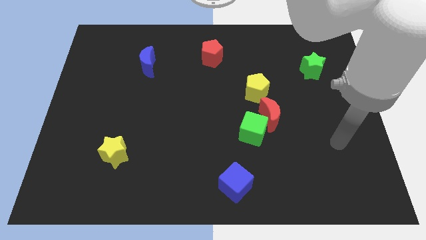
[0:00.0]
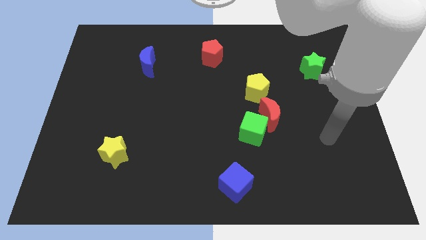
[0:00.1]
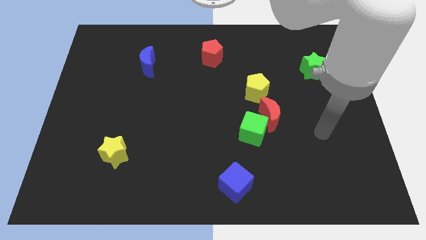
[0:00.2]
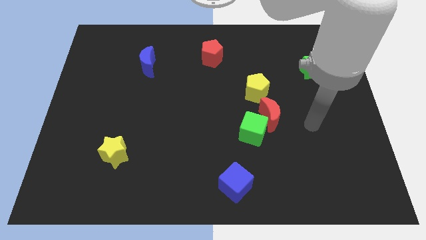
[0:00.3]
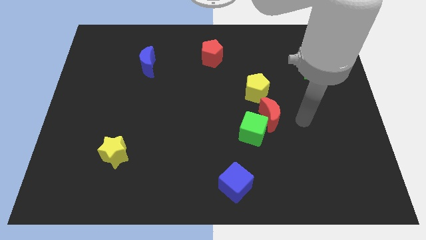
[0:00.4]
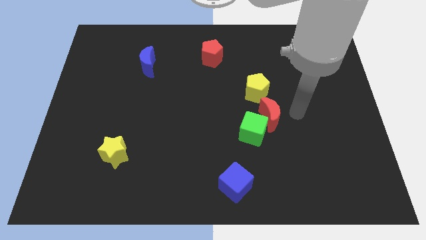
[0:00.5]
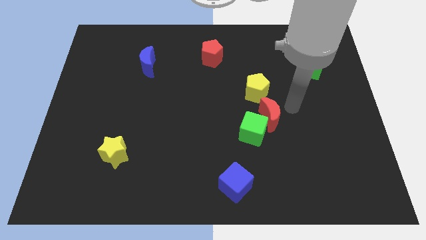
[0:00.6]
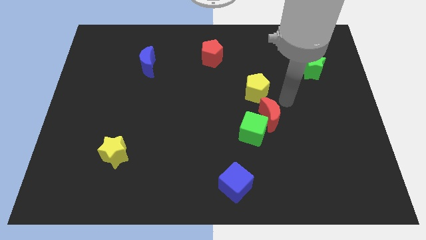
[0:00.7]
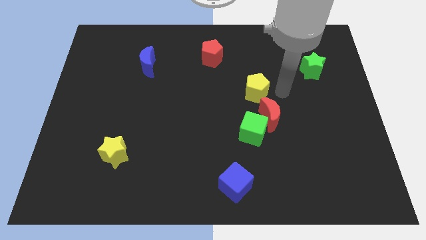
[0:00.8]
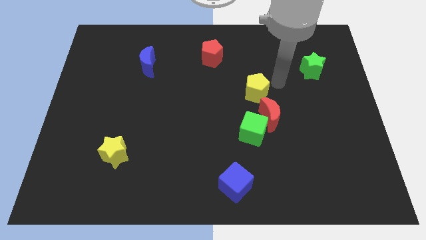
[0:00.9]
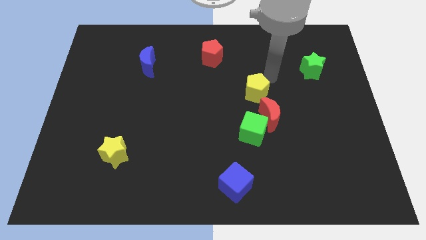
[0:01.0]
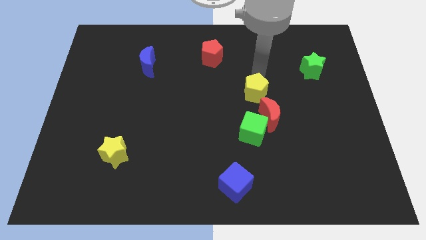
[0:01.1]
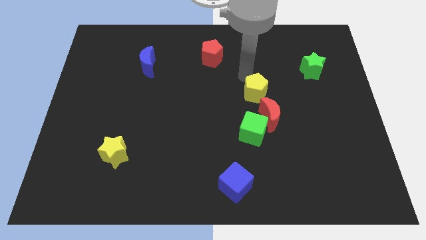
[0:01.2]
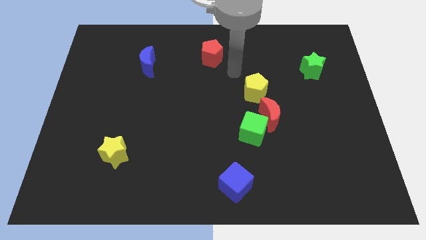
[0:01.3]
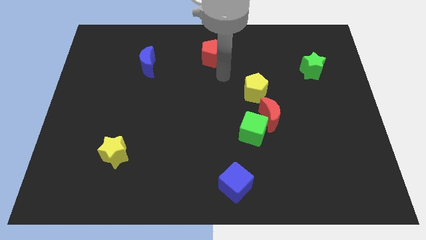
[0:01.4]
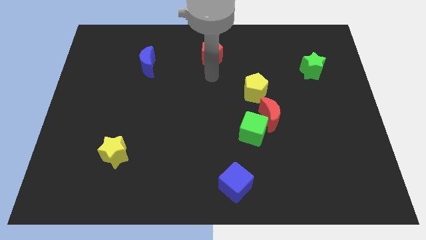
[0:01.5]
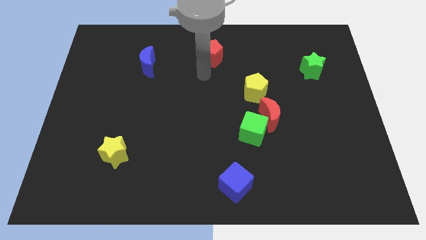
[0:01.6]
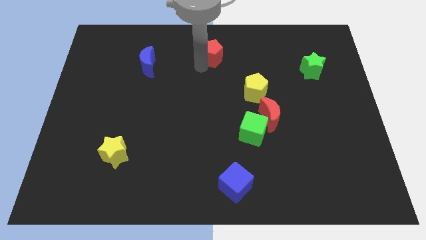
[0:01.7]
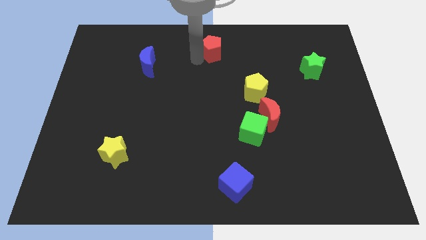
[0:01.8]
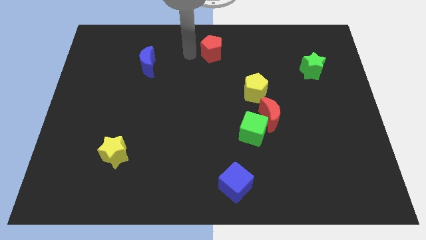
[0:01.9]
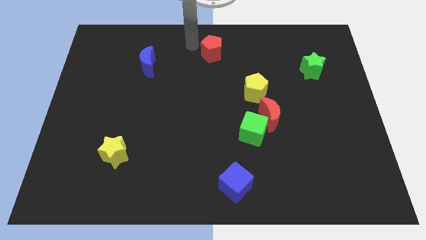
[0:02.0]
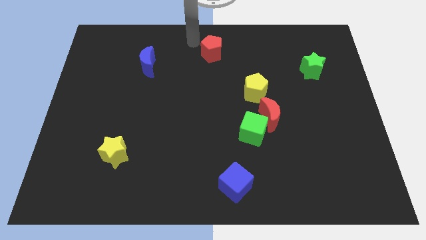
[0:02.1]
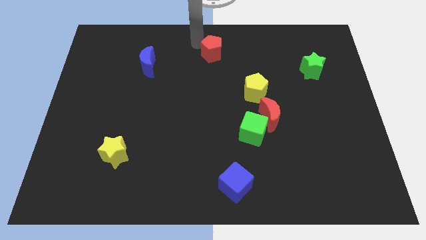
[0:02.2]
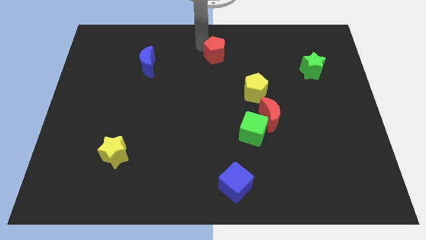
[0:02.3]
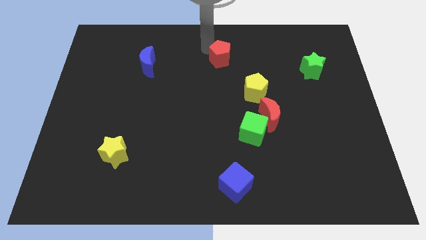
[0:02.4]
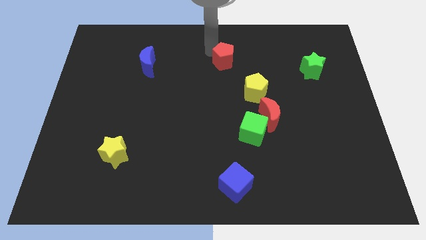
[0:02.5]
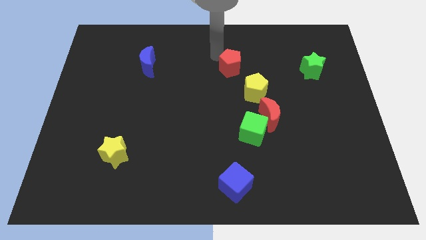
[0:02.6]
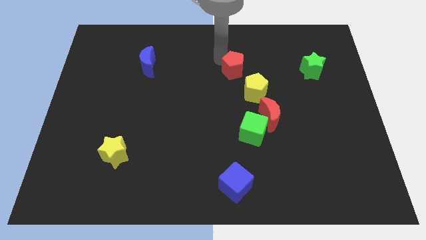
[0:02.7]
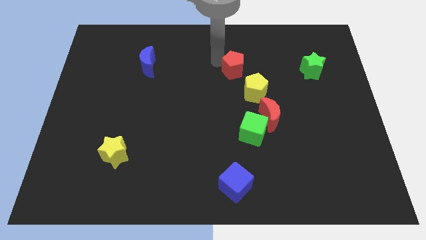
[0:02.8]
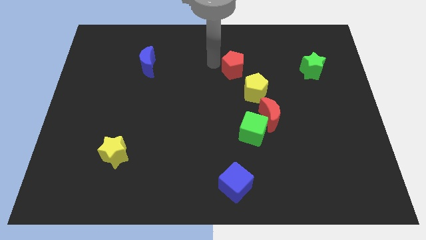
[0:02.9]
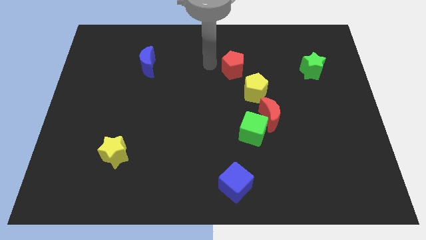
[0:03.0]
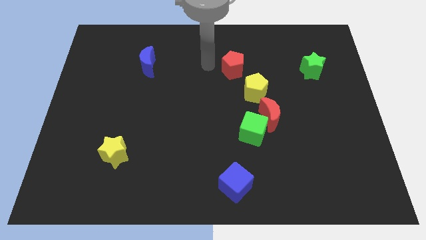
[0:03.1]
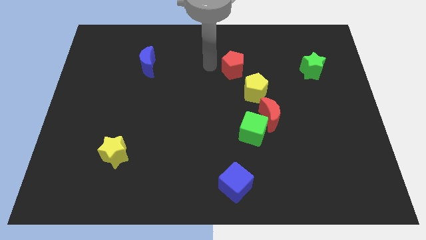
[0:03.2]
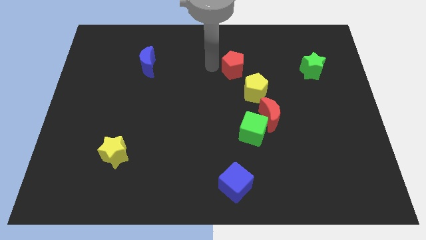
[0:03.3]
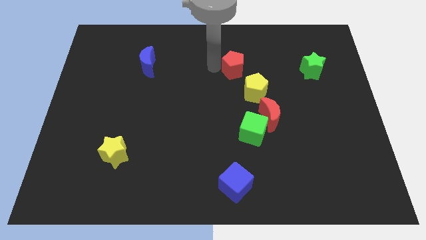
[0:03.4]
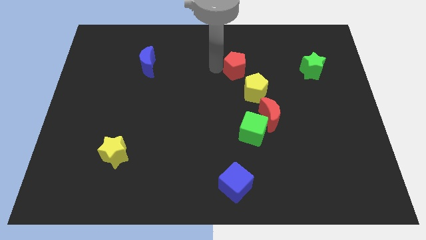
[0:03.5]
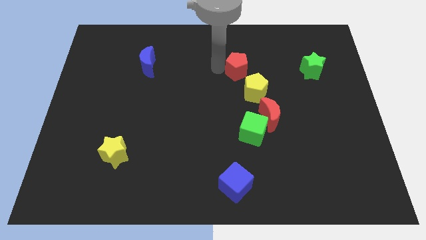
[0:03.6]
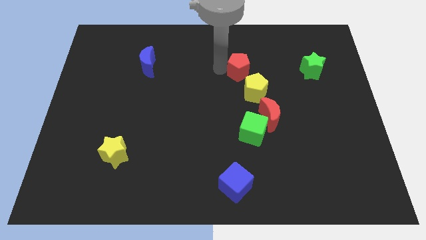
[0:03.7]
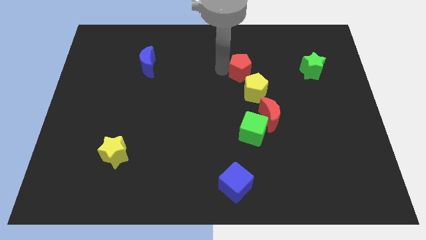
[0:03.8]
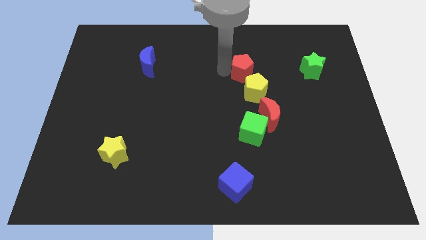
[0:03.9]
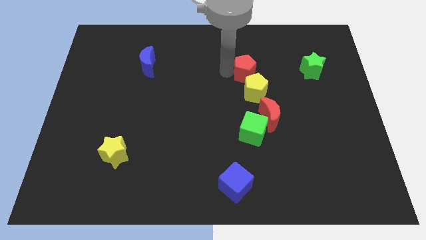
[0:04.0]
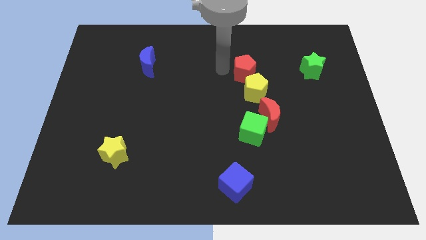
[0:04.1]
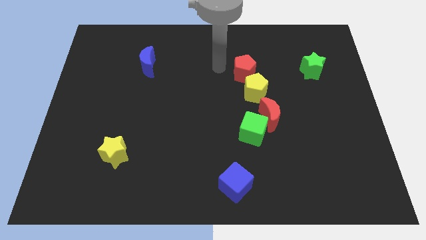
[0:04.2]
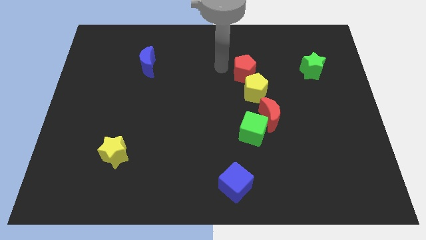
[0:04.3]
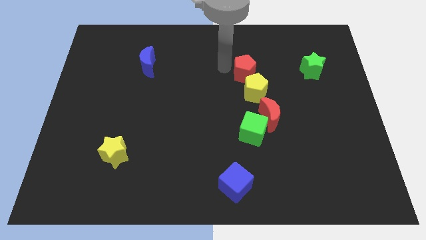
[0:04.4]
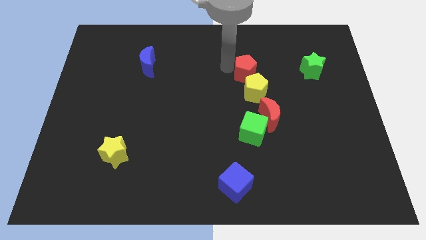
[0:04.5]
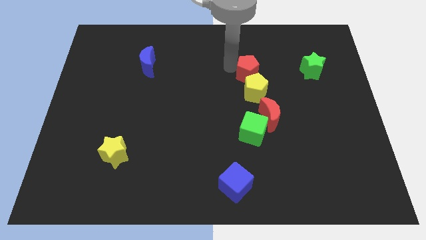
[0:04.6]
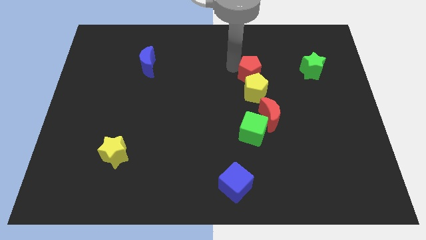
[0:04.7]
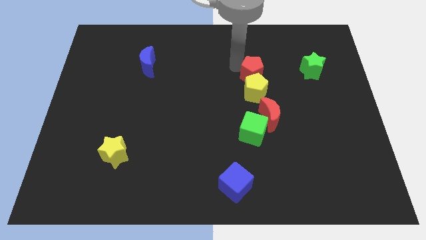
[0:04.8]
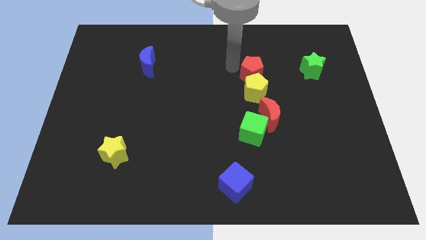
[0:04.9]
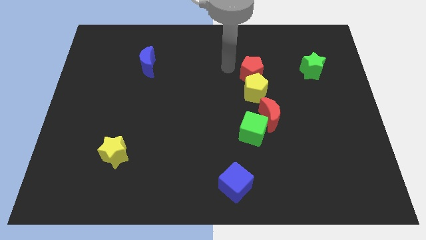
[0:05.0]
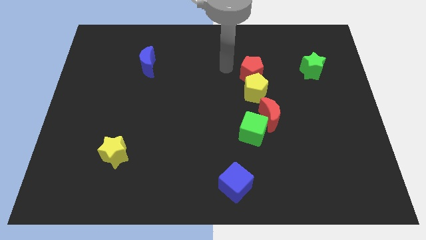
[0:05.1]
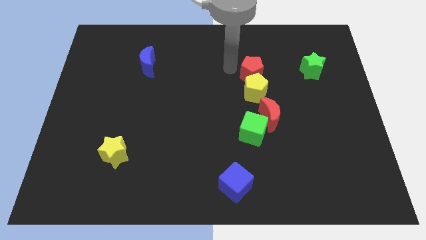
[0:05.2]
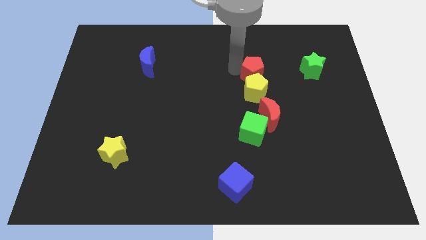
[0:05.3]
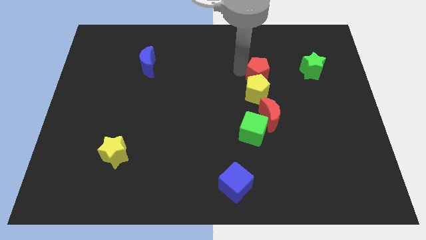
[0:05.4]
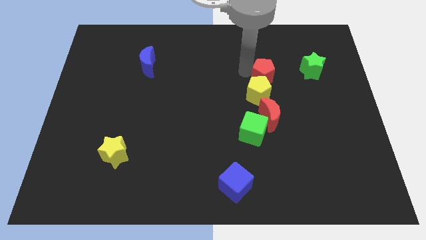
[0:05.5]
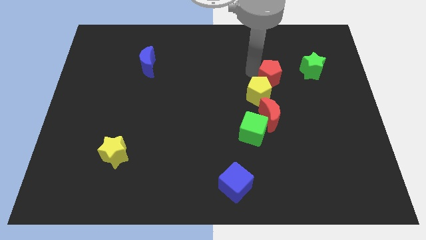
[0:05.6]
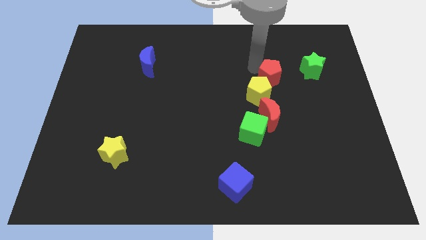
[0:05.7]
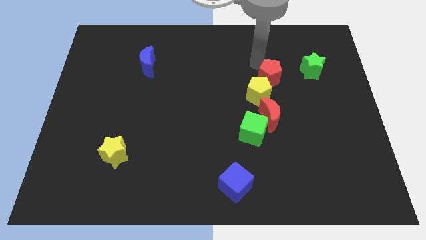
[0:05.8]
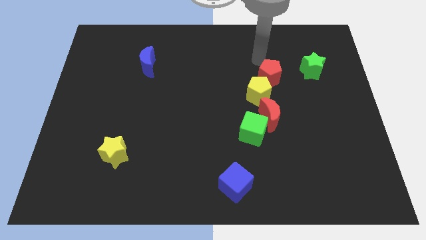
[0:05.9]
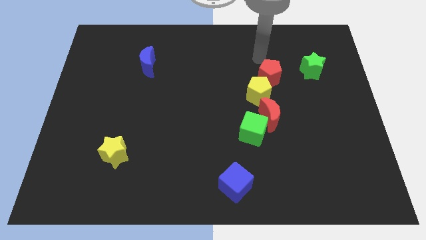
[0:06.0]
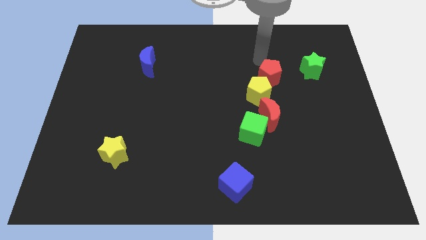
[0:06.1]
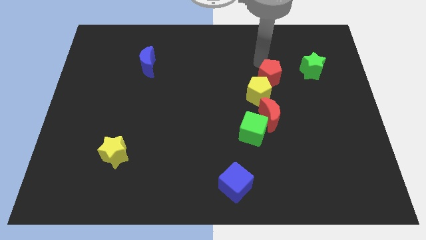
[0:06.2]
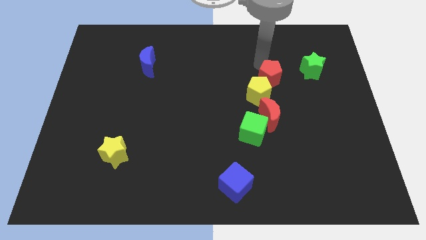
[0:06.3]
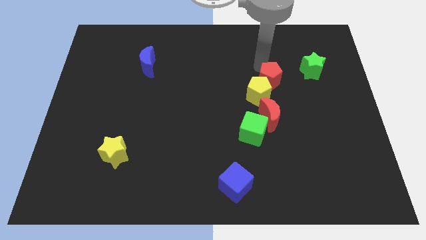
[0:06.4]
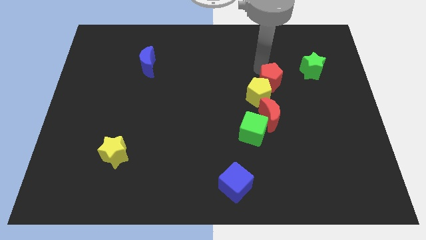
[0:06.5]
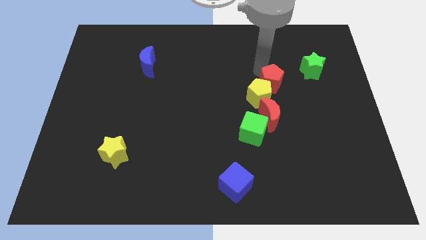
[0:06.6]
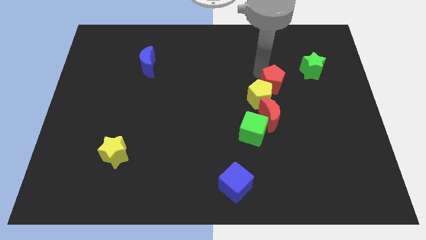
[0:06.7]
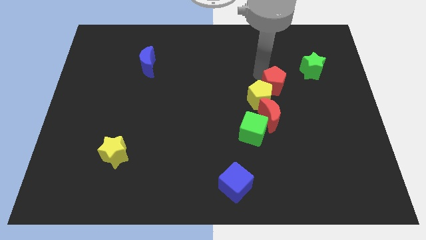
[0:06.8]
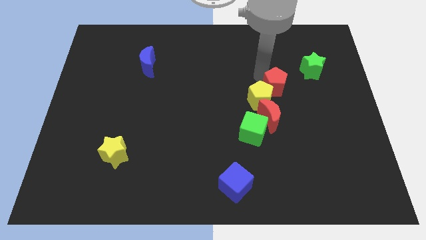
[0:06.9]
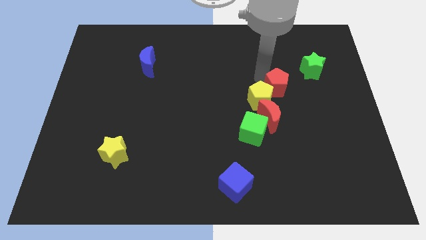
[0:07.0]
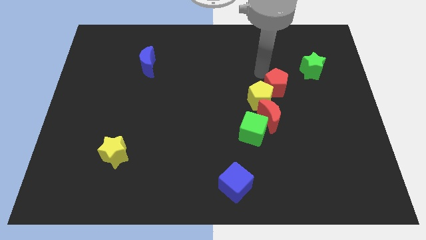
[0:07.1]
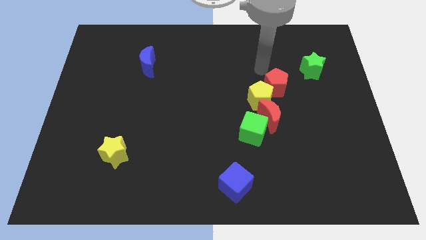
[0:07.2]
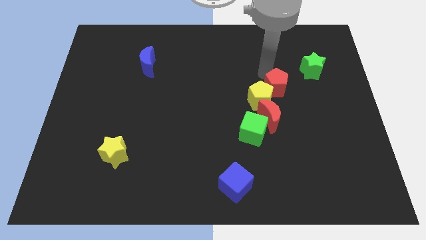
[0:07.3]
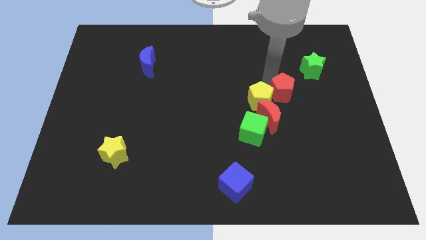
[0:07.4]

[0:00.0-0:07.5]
move the red pentagon diagonally down and right

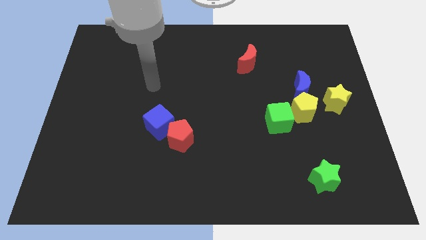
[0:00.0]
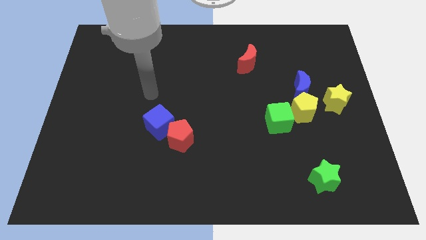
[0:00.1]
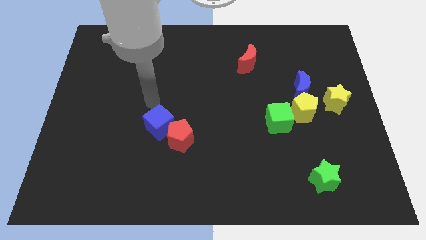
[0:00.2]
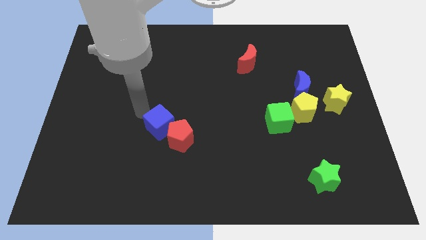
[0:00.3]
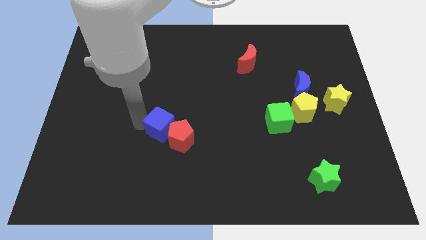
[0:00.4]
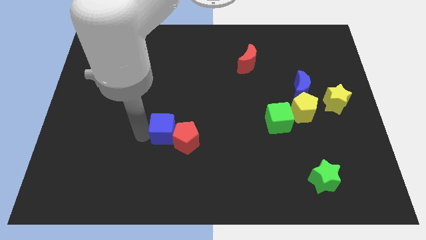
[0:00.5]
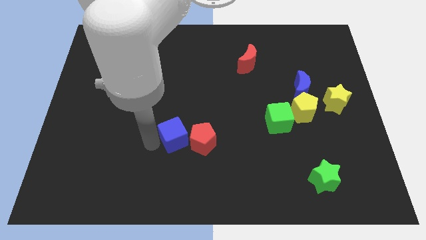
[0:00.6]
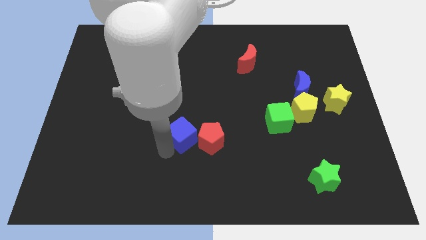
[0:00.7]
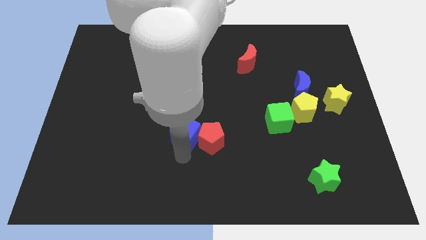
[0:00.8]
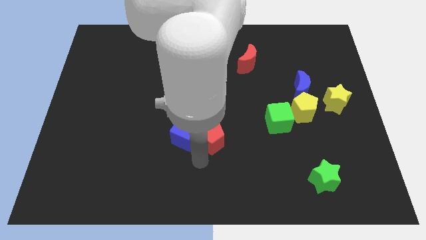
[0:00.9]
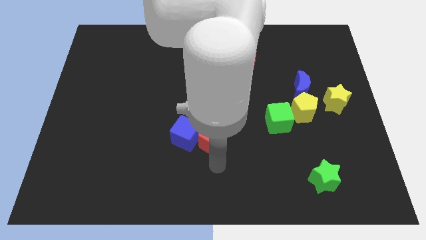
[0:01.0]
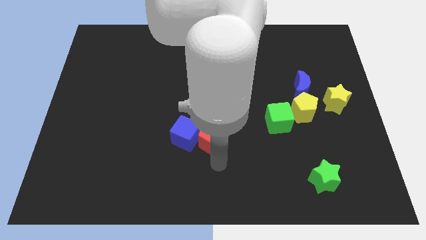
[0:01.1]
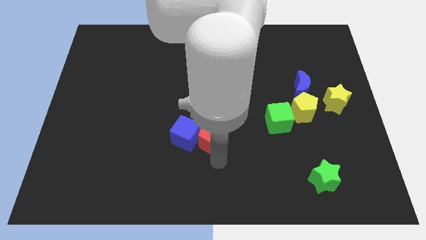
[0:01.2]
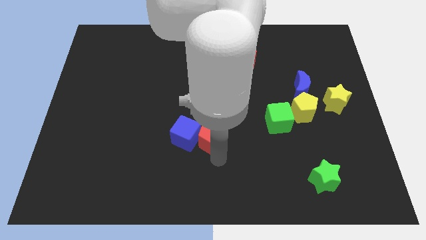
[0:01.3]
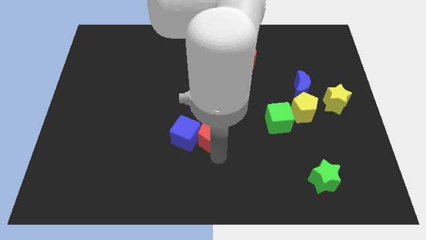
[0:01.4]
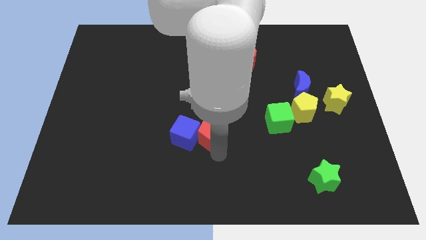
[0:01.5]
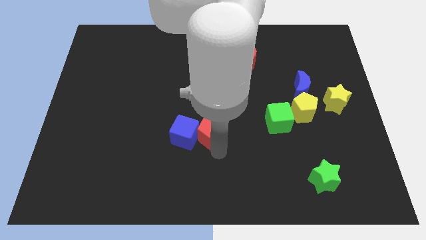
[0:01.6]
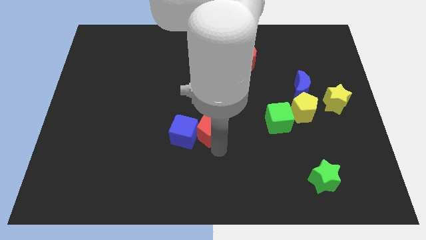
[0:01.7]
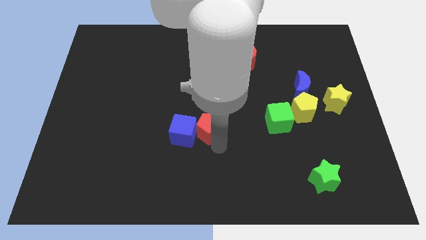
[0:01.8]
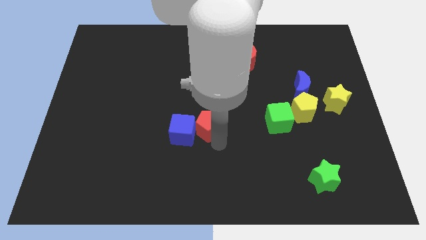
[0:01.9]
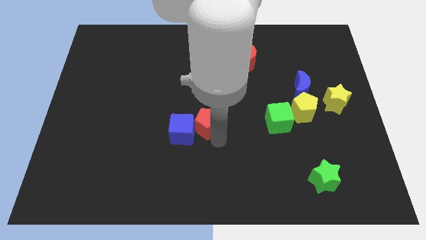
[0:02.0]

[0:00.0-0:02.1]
slightly move the red pentagon upwards and to the right
